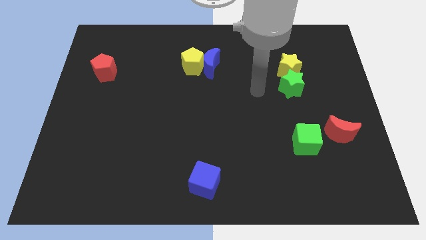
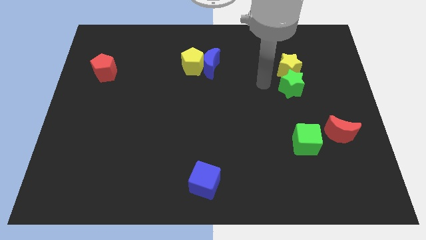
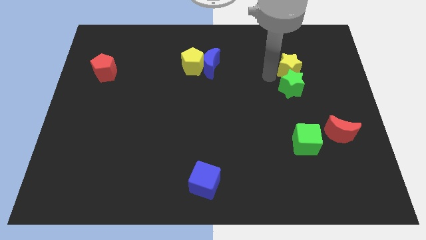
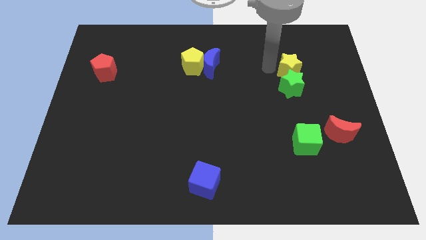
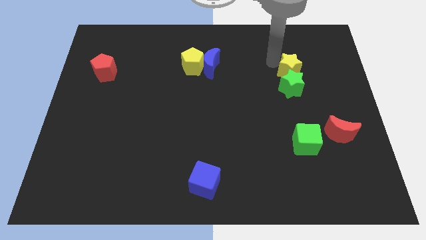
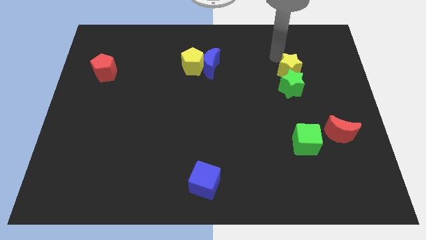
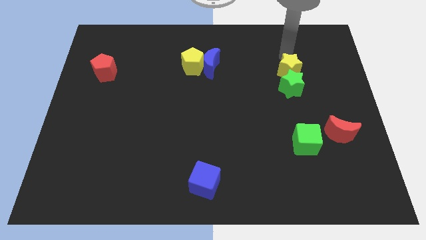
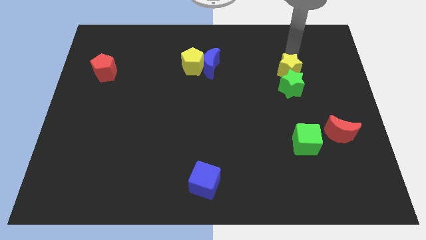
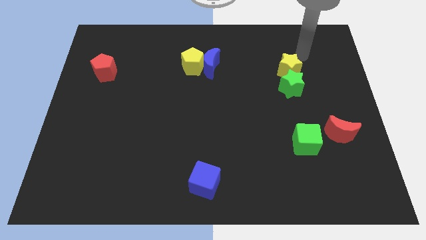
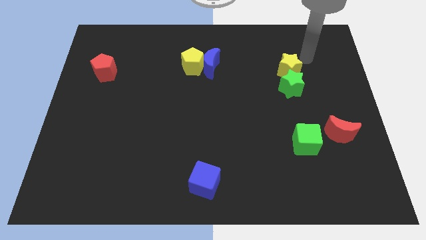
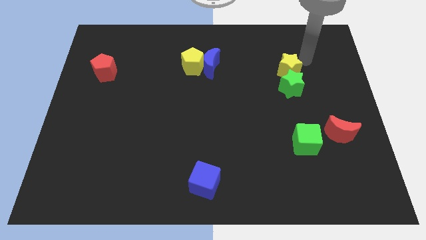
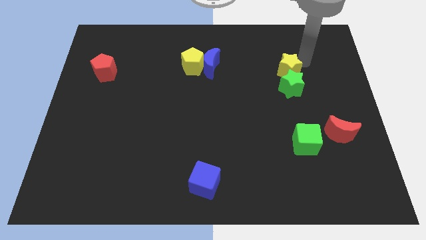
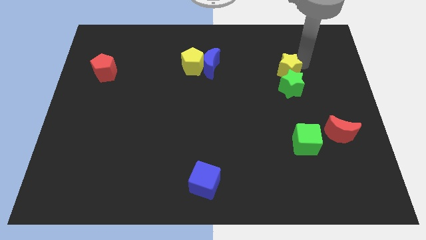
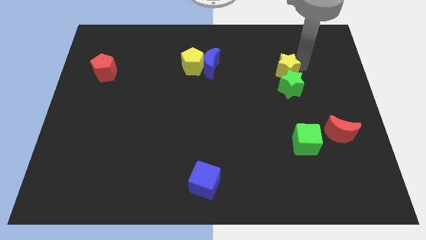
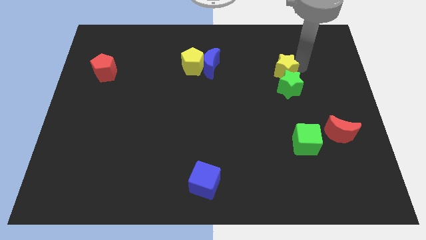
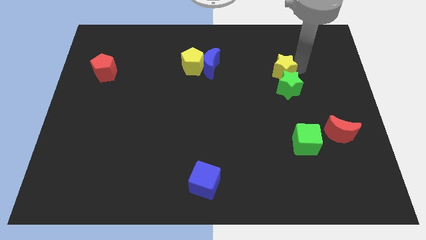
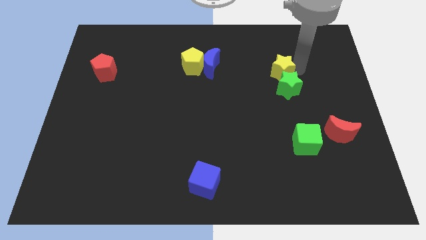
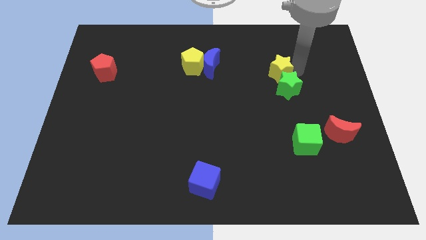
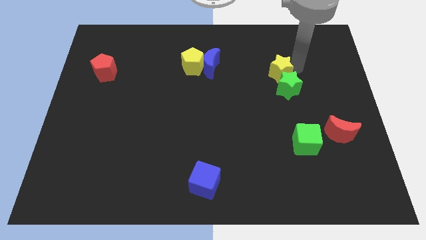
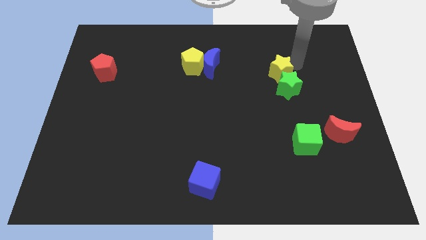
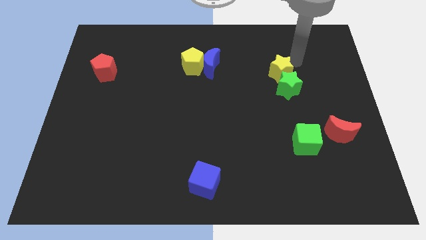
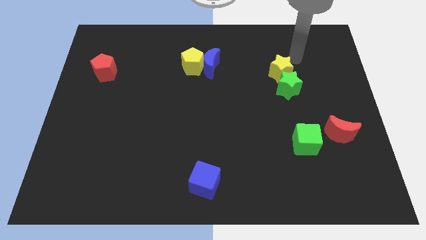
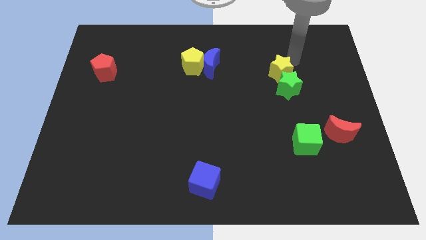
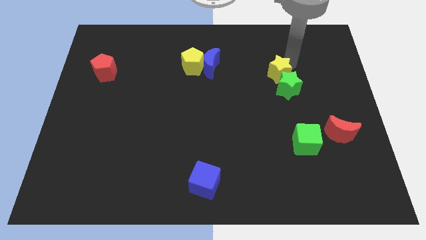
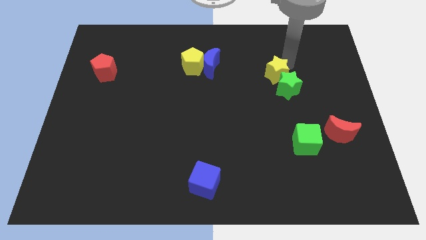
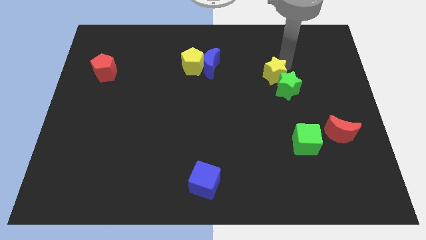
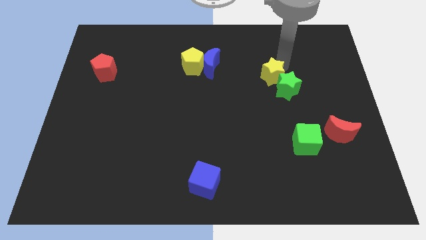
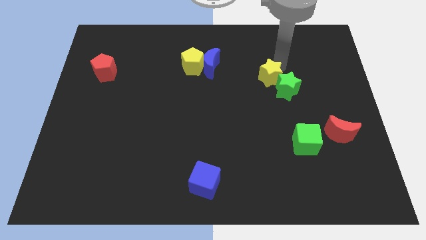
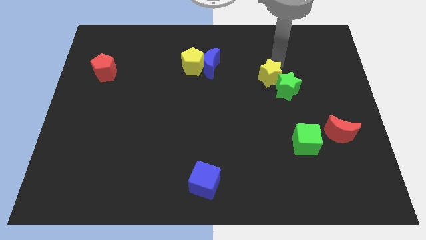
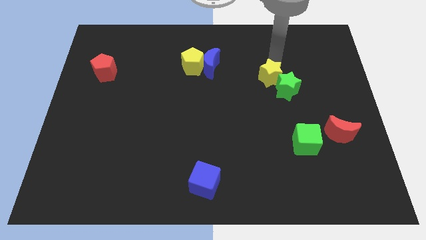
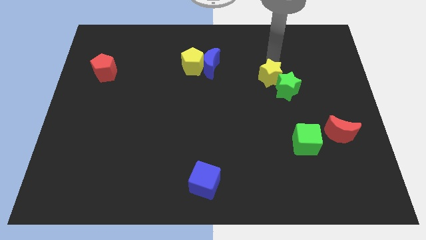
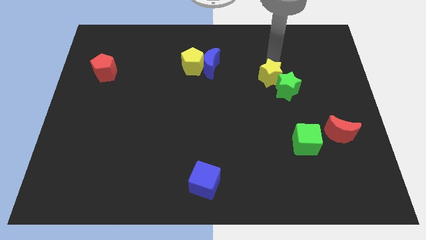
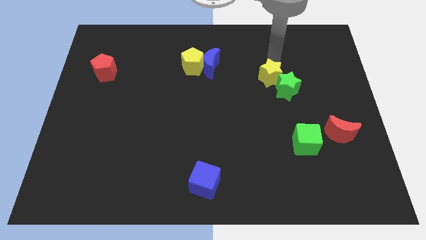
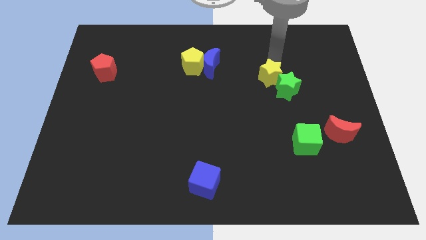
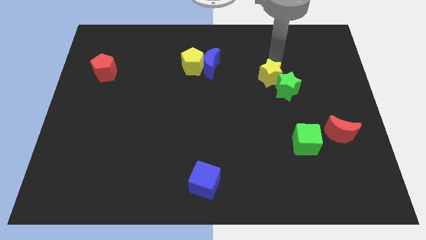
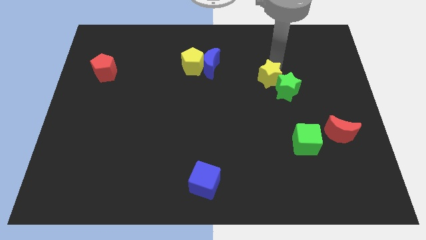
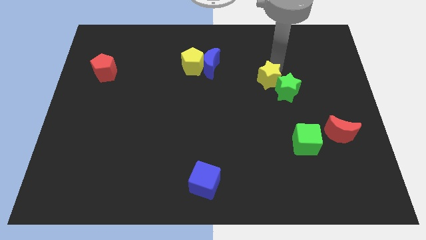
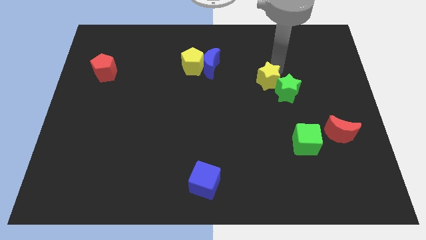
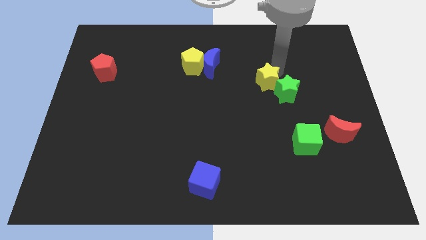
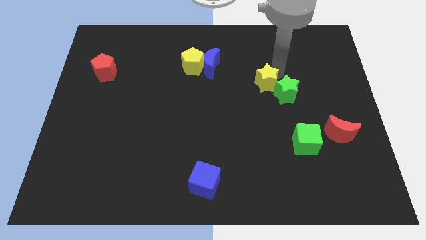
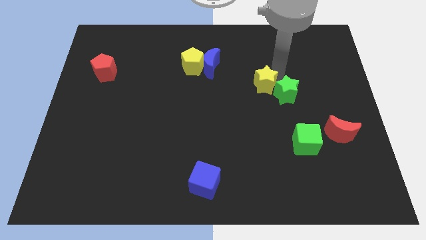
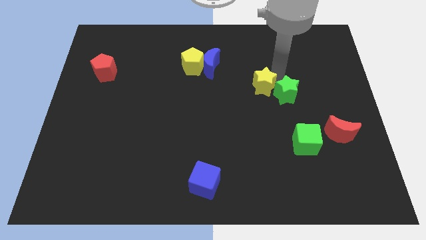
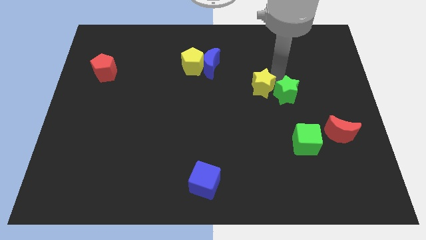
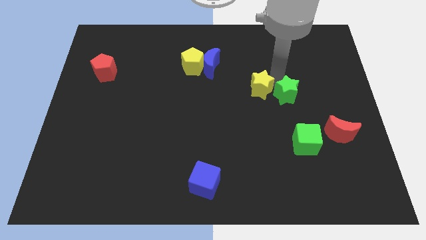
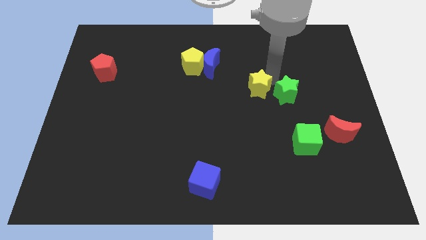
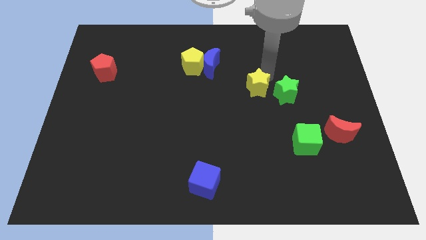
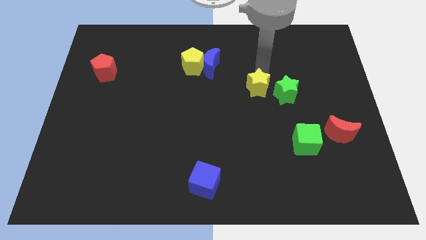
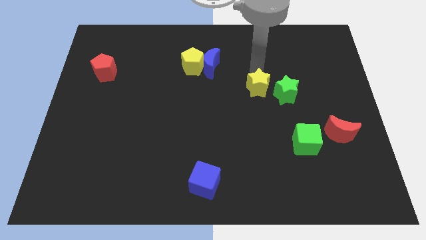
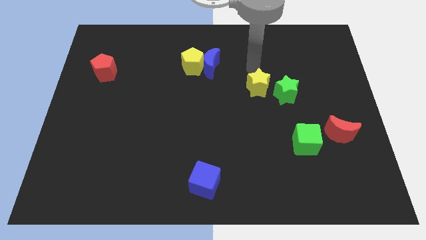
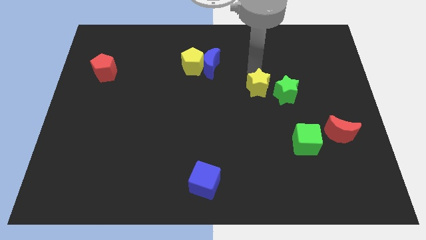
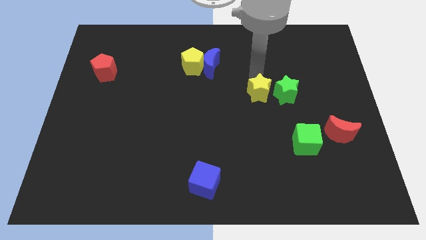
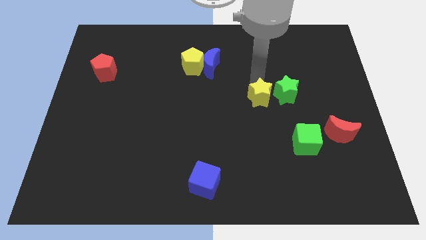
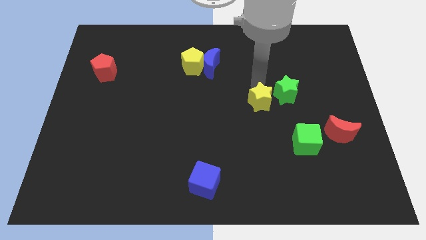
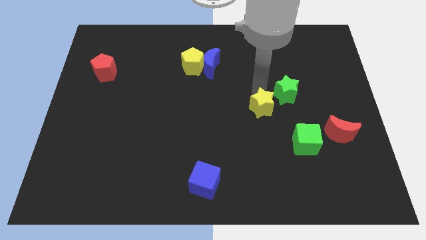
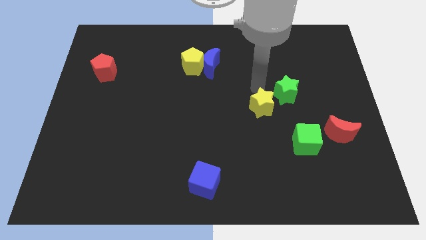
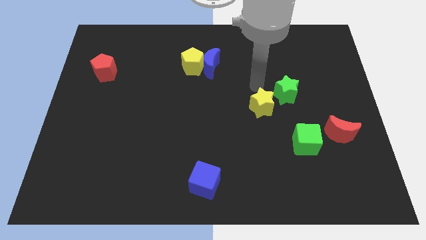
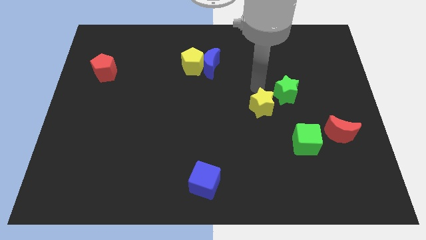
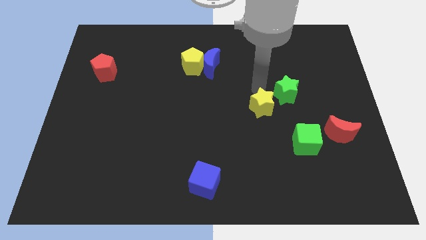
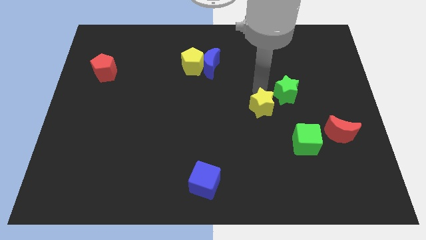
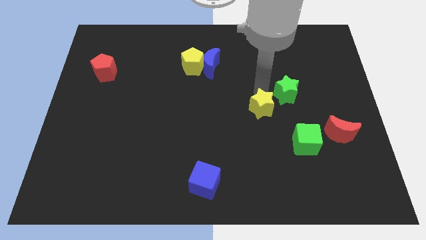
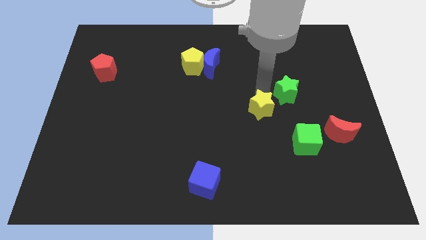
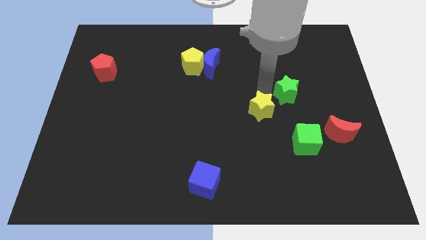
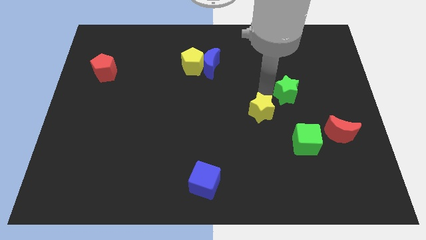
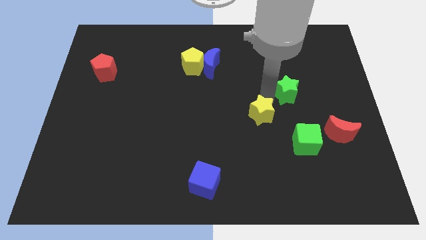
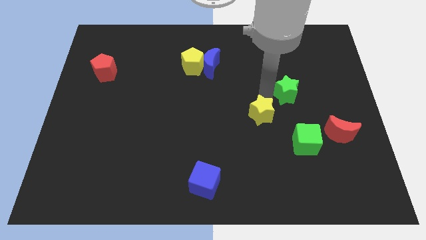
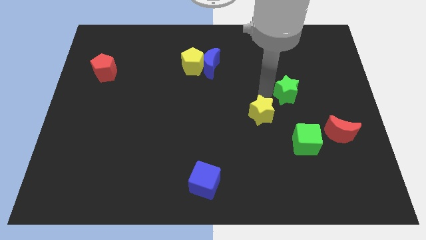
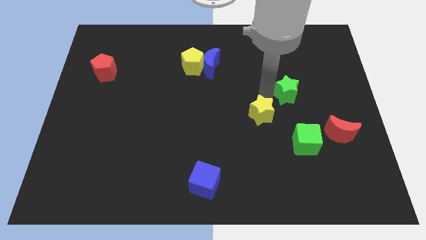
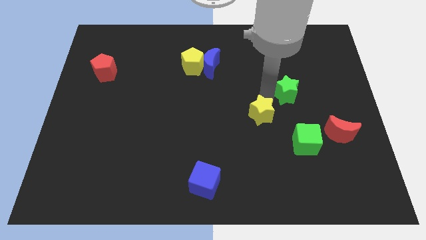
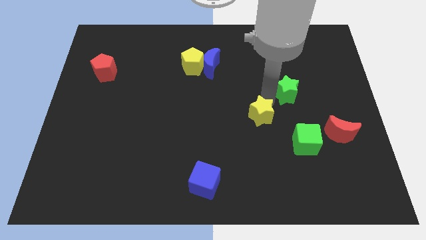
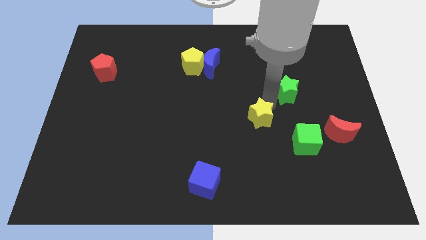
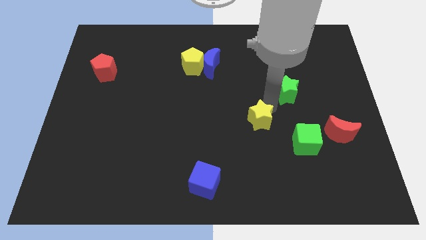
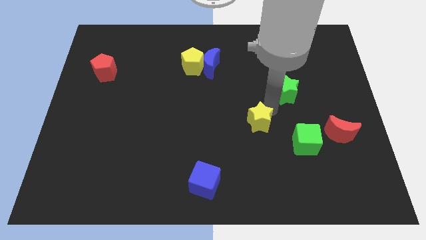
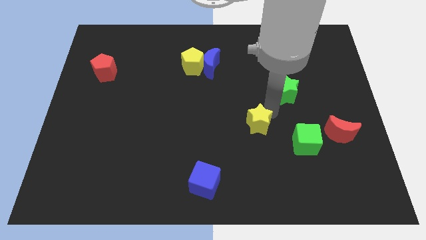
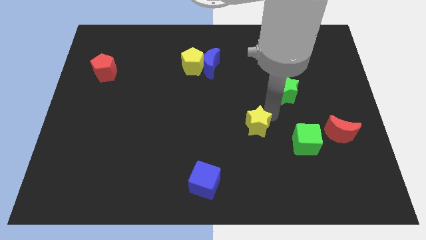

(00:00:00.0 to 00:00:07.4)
move the yellow star to the left side of the green cube

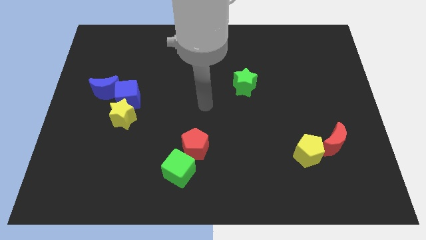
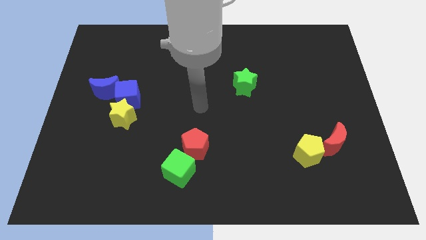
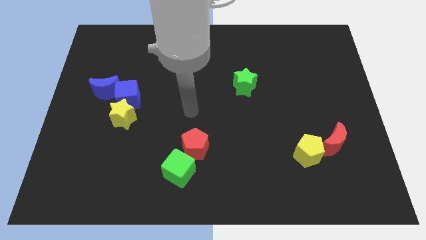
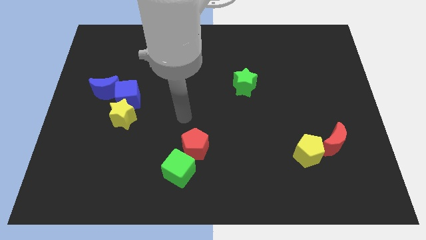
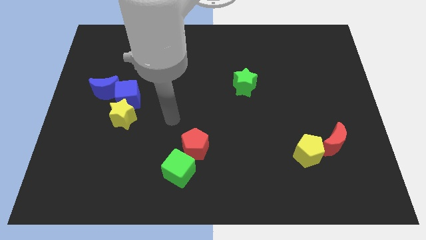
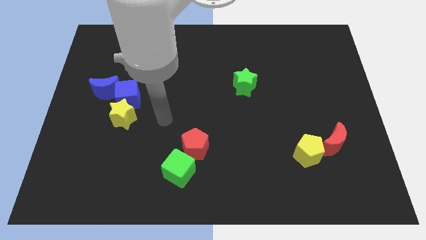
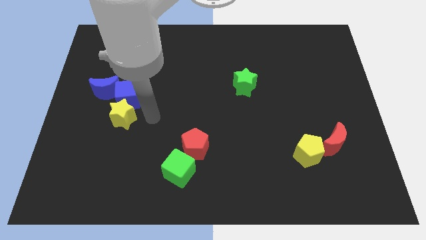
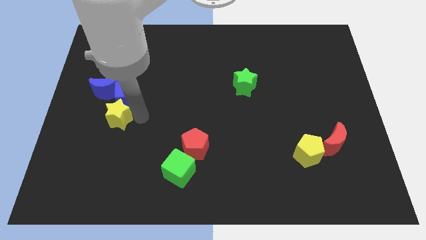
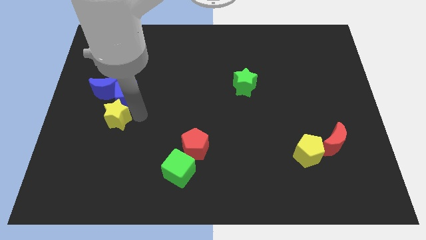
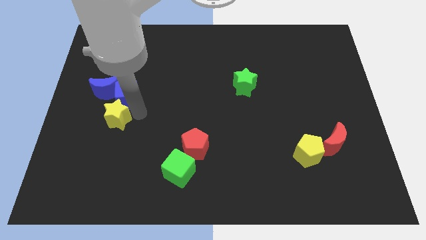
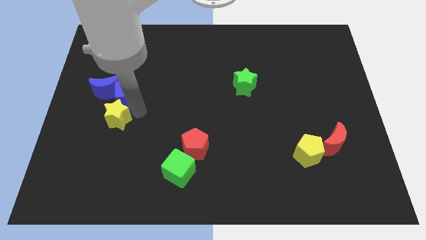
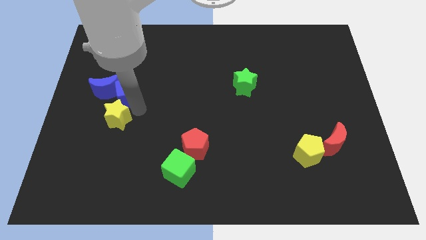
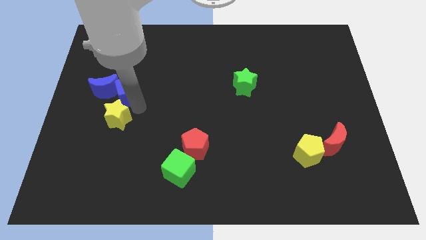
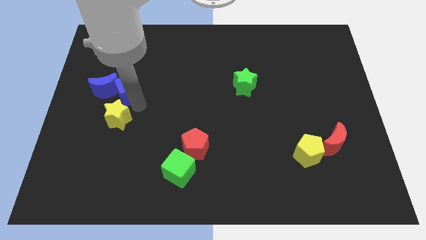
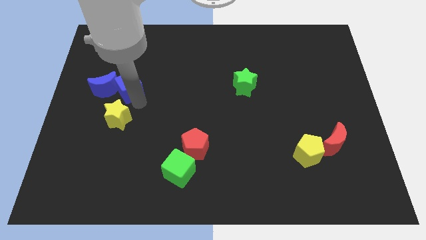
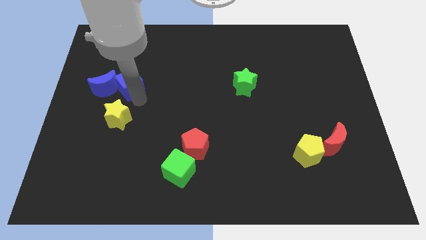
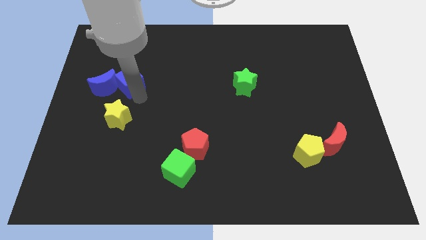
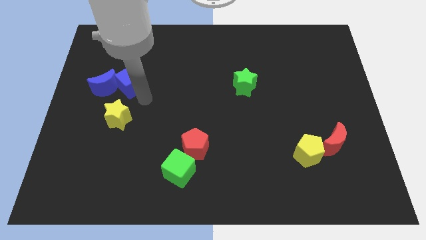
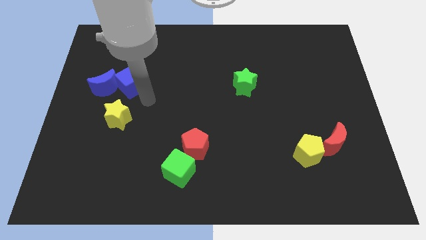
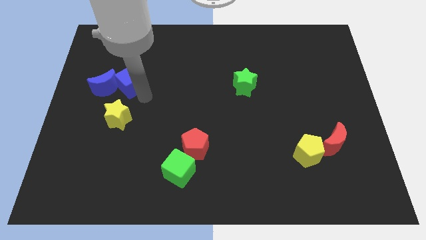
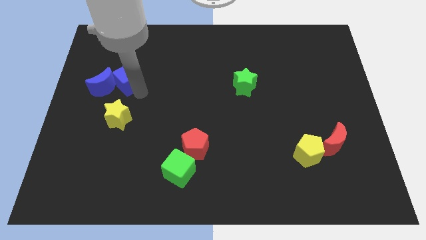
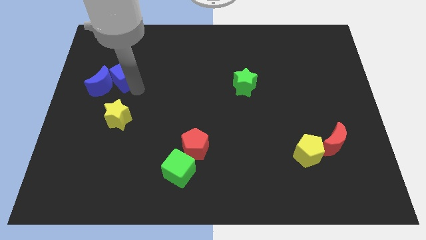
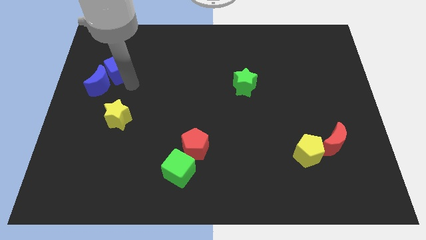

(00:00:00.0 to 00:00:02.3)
put the blue cube to the top of the blue moon
